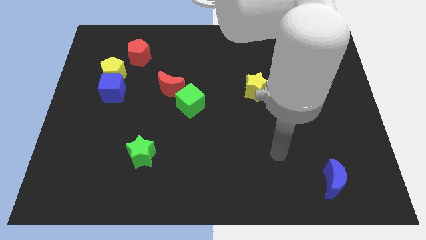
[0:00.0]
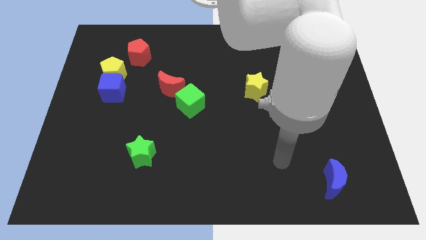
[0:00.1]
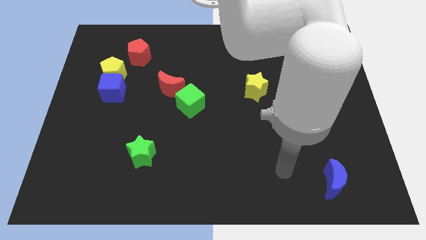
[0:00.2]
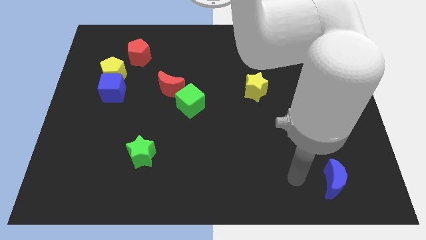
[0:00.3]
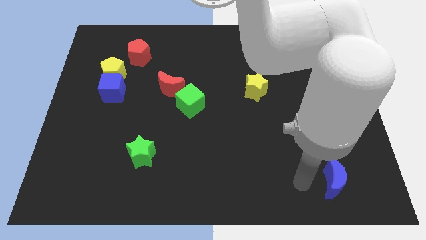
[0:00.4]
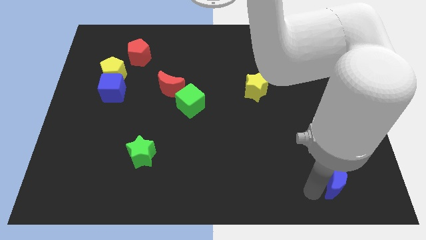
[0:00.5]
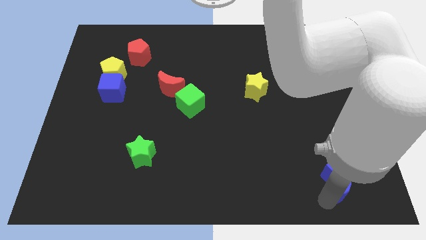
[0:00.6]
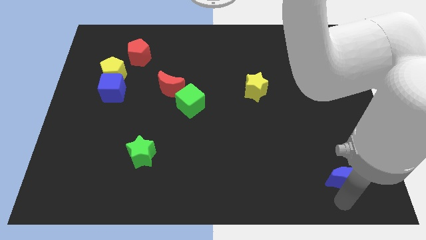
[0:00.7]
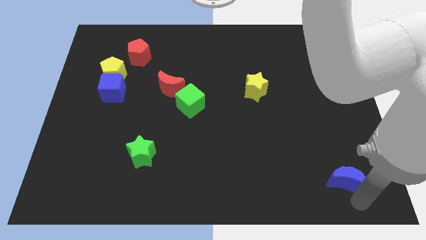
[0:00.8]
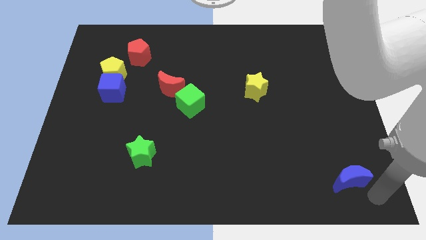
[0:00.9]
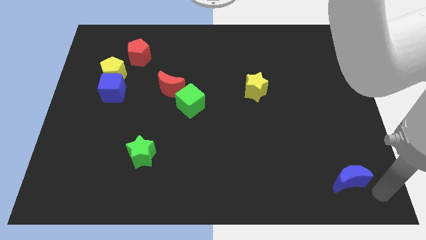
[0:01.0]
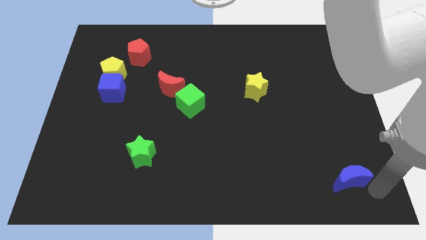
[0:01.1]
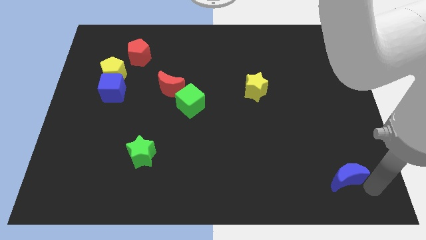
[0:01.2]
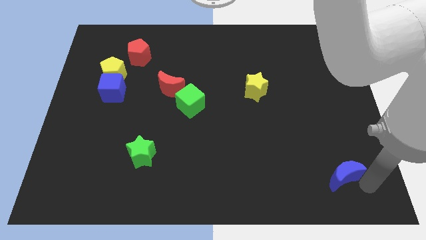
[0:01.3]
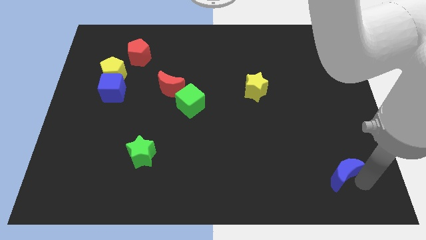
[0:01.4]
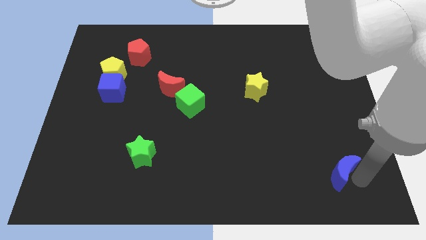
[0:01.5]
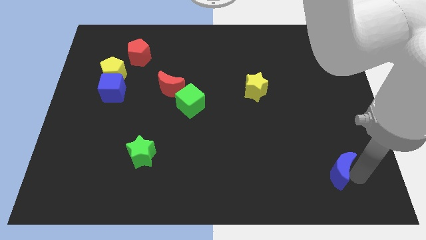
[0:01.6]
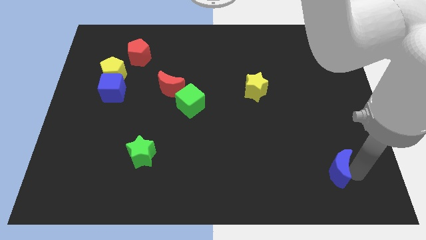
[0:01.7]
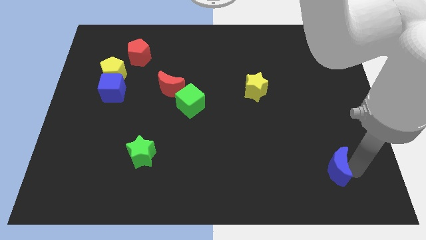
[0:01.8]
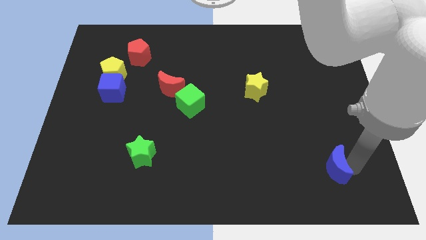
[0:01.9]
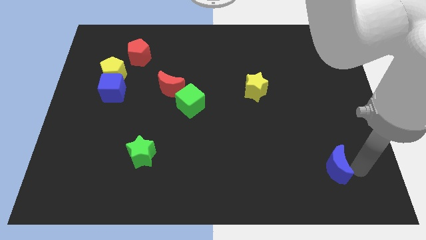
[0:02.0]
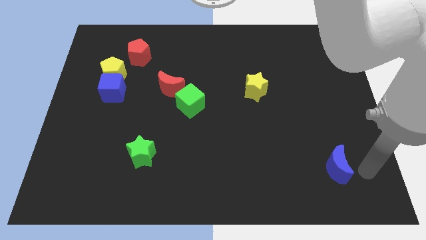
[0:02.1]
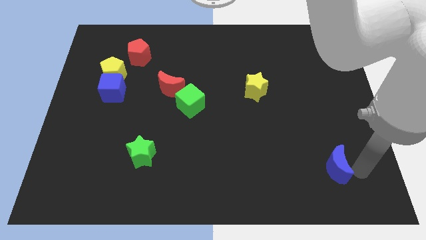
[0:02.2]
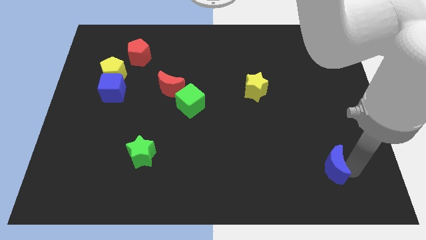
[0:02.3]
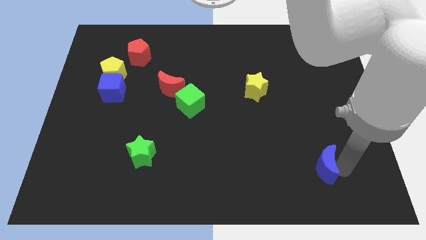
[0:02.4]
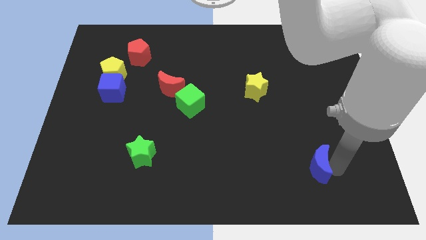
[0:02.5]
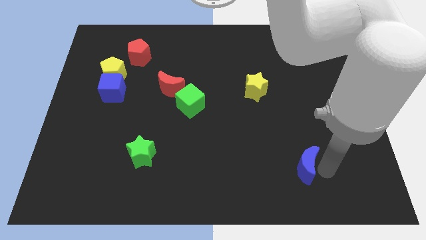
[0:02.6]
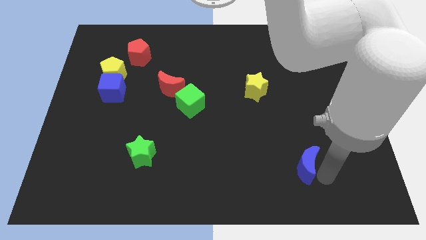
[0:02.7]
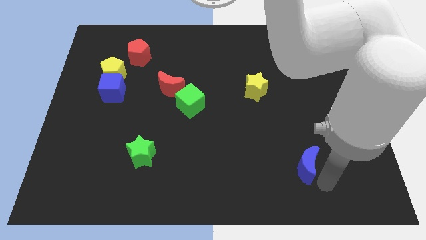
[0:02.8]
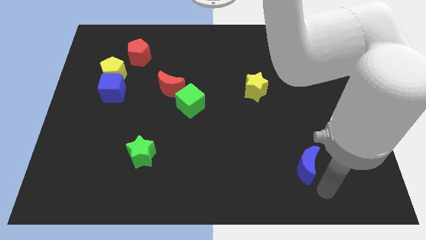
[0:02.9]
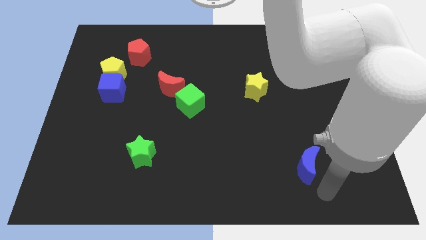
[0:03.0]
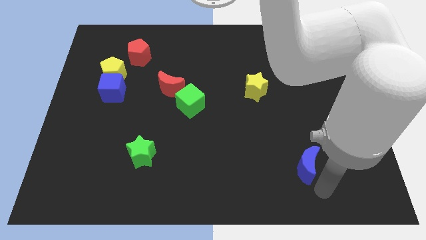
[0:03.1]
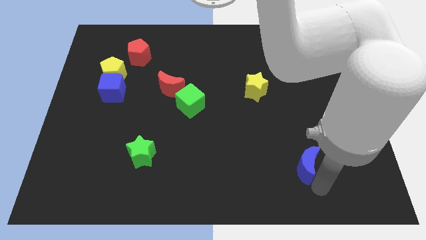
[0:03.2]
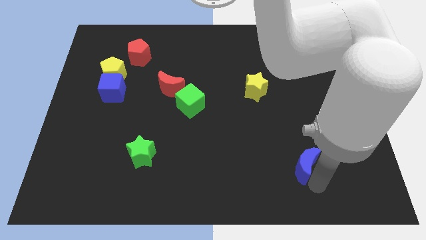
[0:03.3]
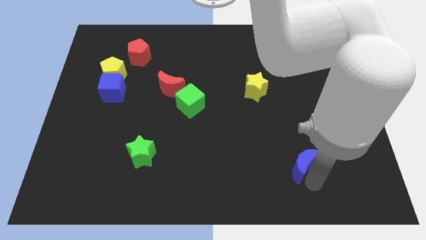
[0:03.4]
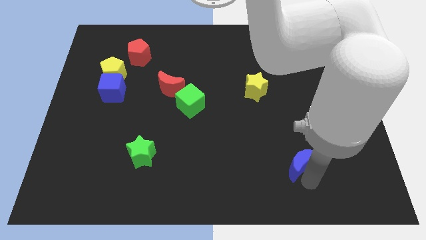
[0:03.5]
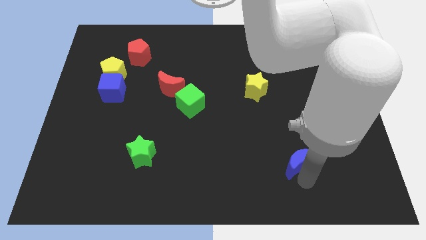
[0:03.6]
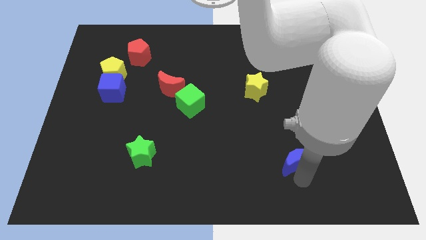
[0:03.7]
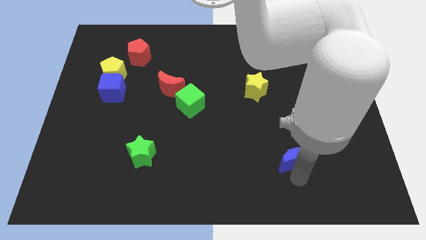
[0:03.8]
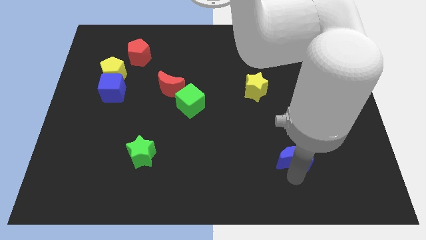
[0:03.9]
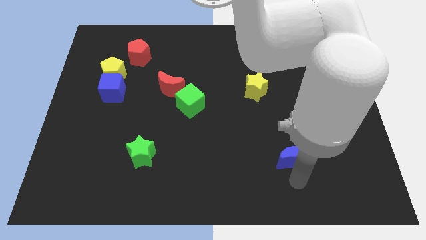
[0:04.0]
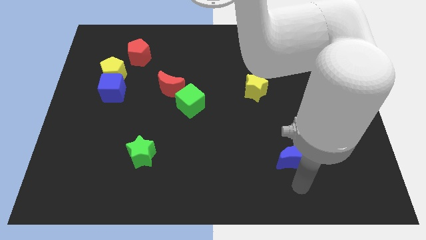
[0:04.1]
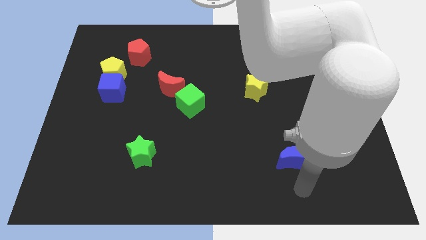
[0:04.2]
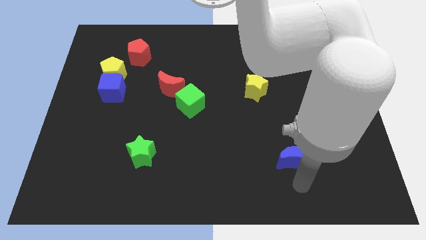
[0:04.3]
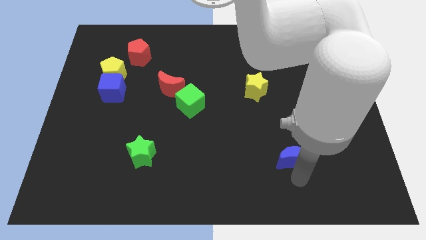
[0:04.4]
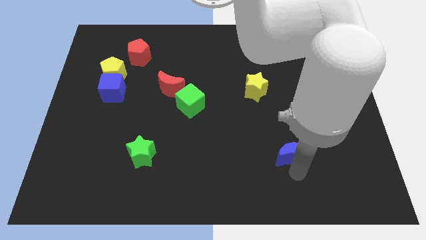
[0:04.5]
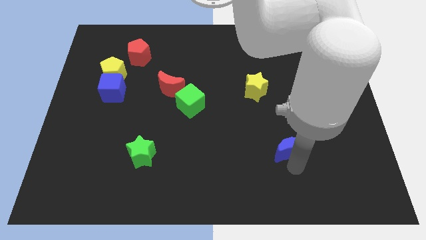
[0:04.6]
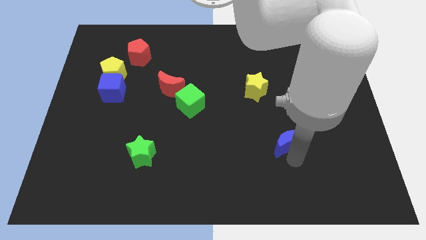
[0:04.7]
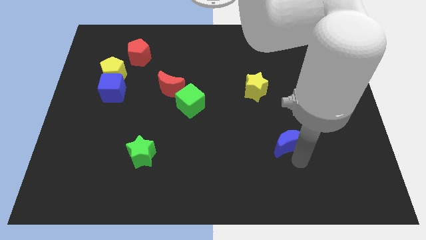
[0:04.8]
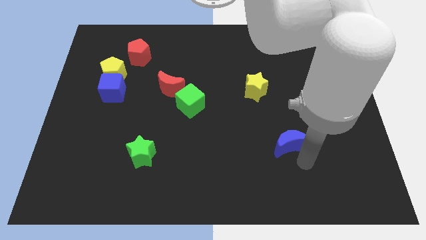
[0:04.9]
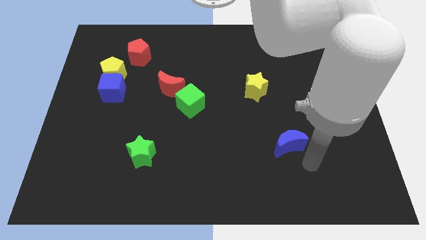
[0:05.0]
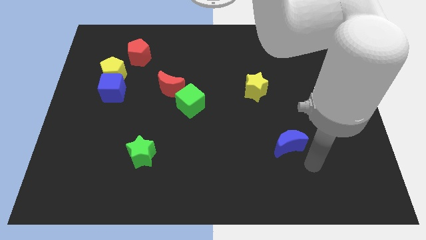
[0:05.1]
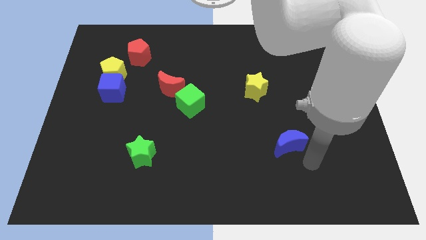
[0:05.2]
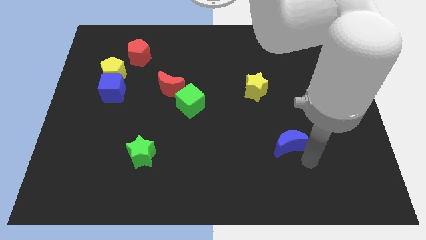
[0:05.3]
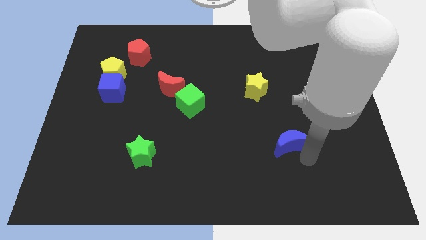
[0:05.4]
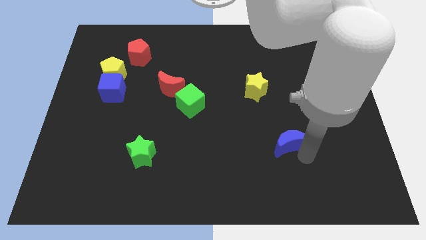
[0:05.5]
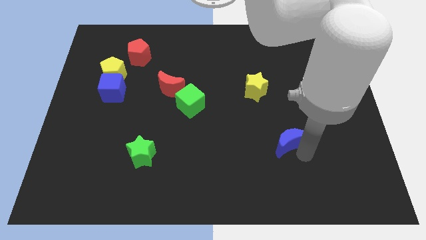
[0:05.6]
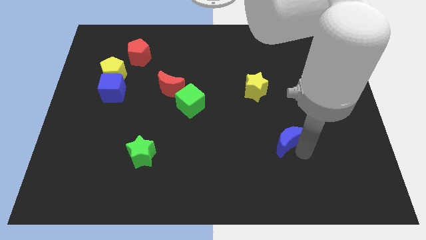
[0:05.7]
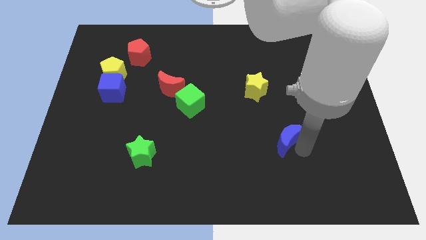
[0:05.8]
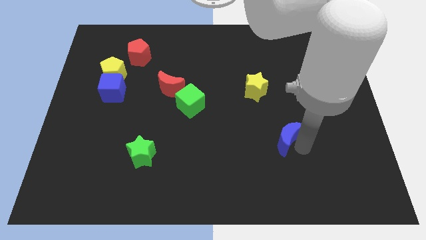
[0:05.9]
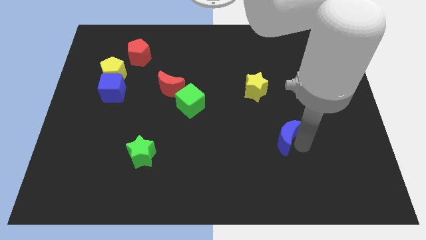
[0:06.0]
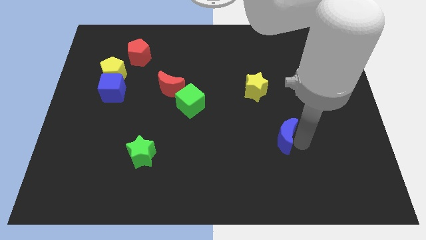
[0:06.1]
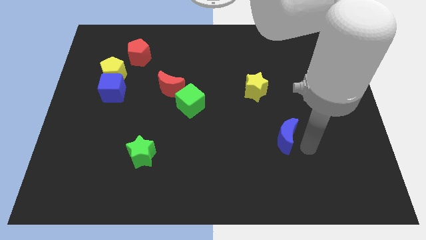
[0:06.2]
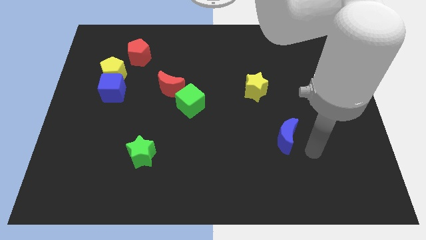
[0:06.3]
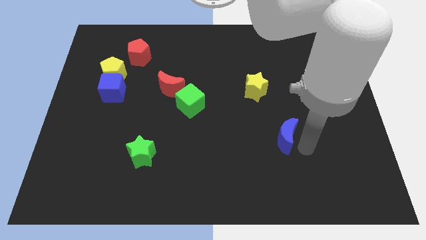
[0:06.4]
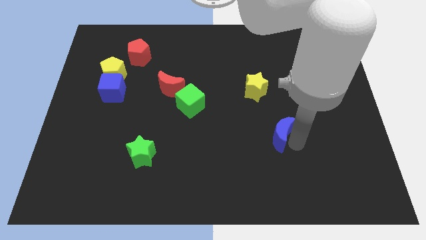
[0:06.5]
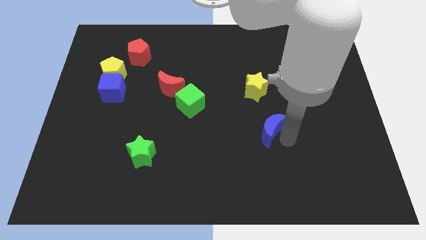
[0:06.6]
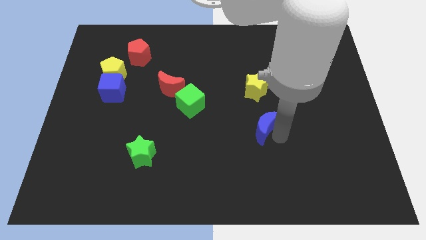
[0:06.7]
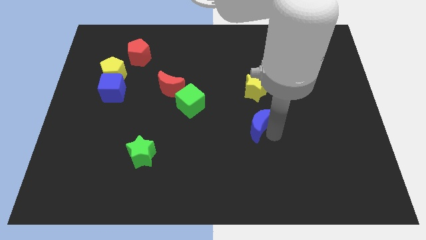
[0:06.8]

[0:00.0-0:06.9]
slide the blue moon upwards and then left

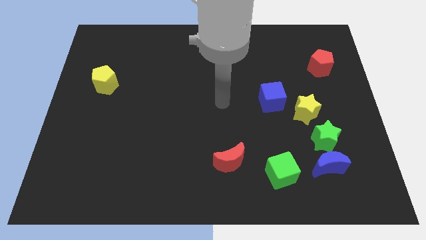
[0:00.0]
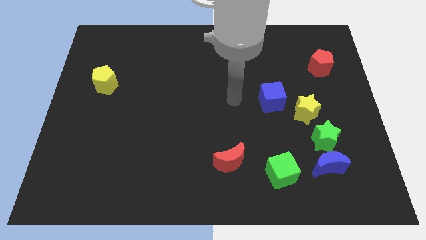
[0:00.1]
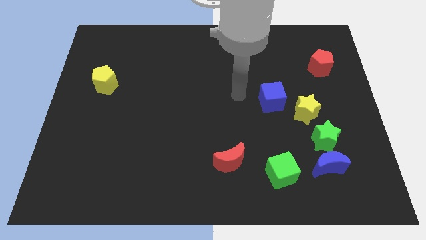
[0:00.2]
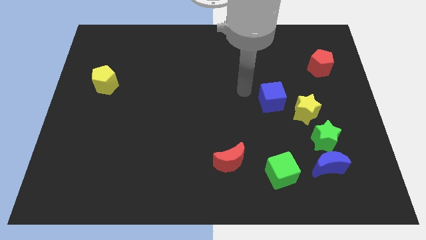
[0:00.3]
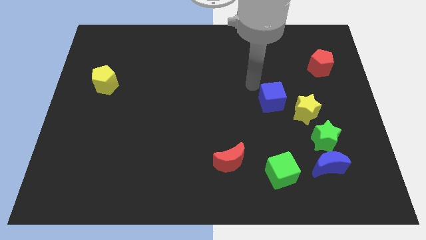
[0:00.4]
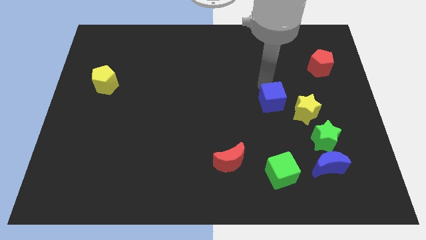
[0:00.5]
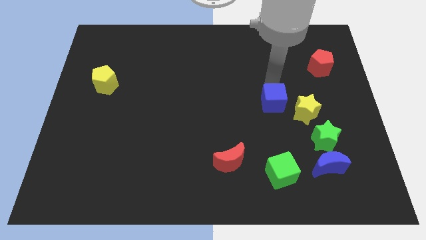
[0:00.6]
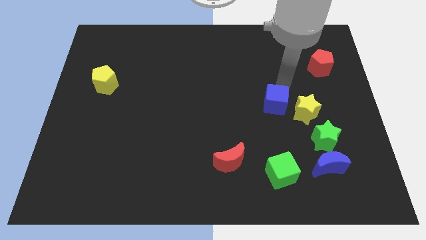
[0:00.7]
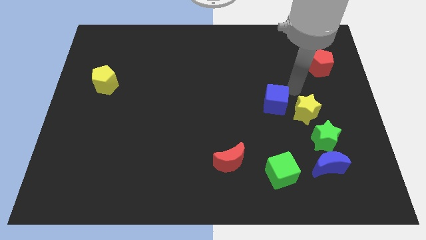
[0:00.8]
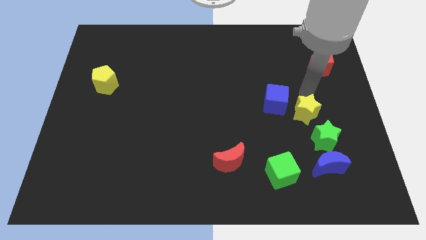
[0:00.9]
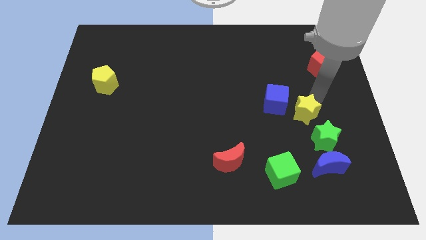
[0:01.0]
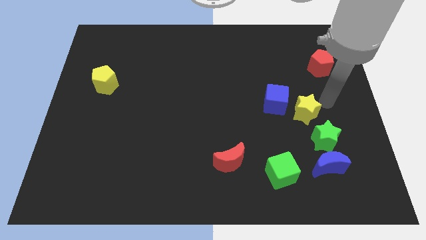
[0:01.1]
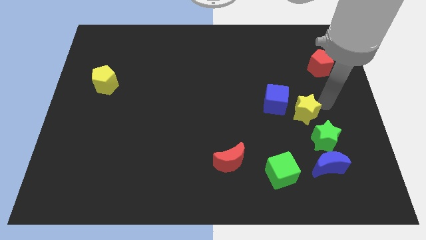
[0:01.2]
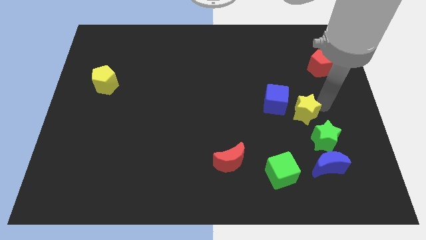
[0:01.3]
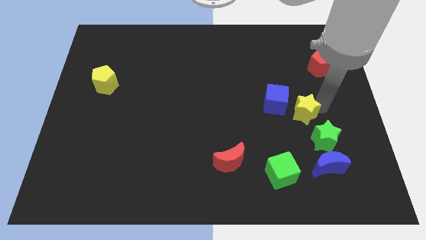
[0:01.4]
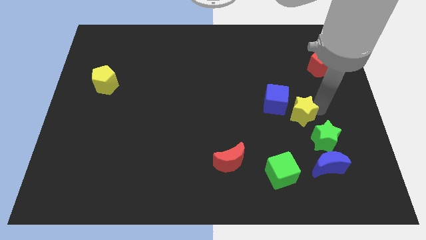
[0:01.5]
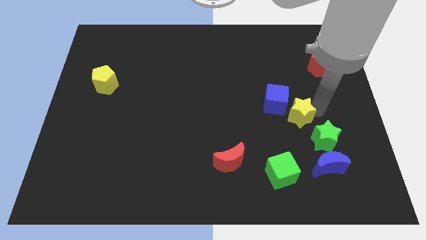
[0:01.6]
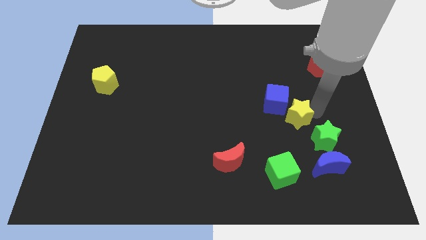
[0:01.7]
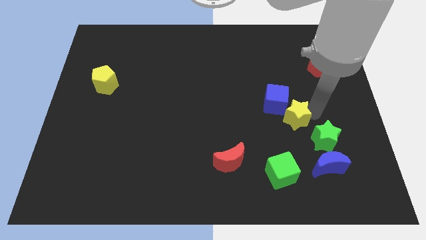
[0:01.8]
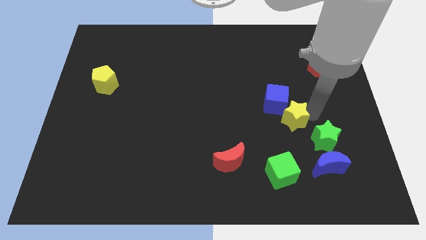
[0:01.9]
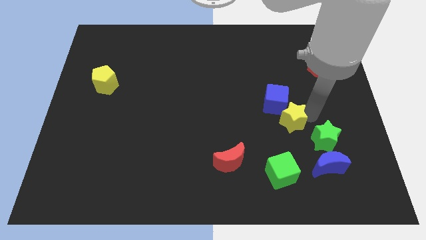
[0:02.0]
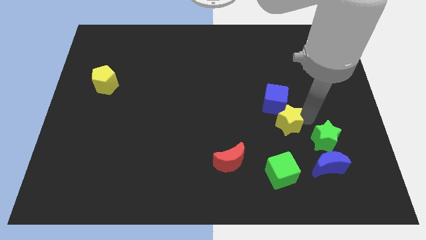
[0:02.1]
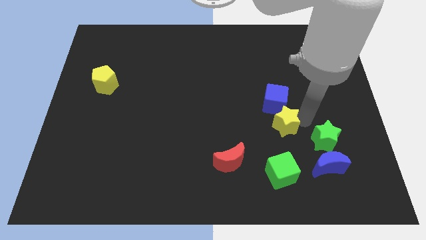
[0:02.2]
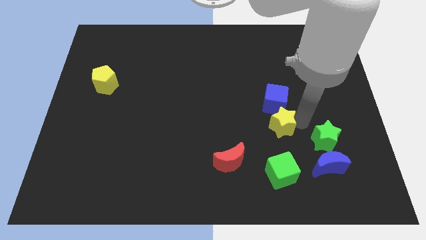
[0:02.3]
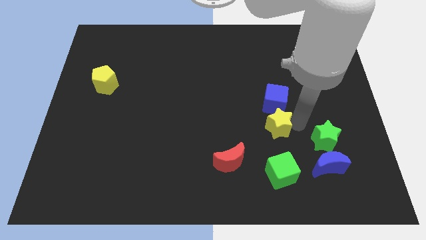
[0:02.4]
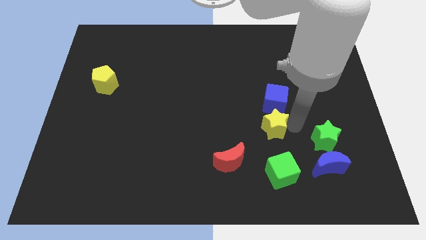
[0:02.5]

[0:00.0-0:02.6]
slightly push the yellow star to the left
